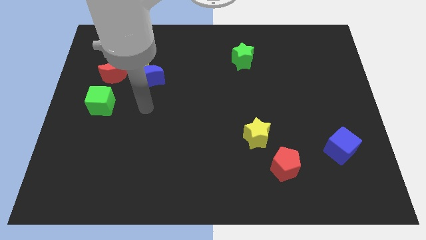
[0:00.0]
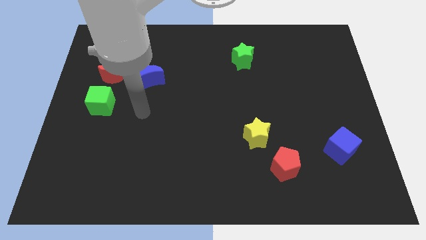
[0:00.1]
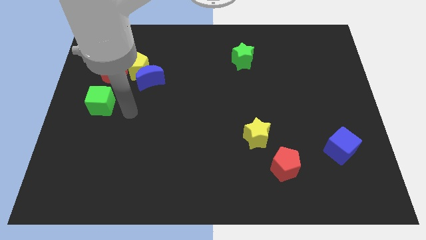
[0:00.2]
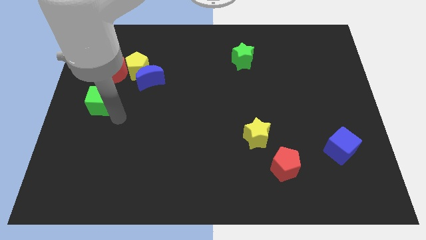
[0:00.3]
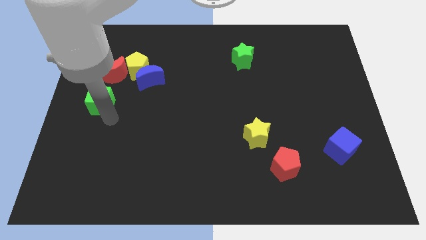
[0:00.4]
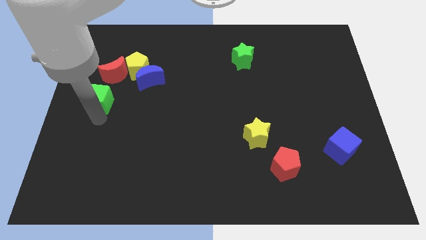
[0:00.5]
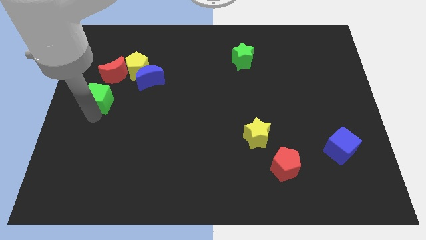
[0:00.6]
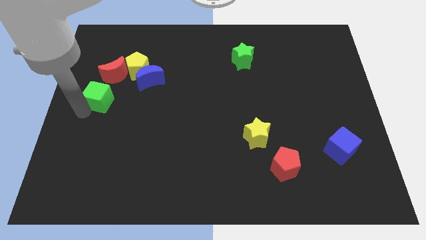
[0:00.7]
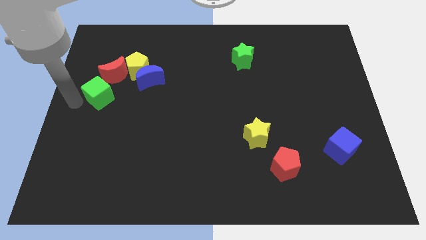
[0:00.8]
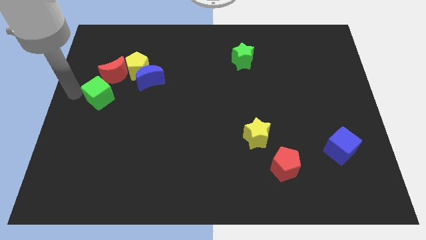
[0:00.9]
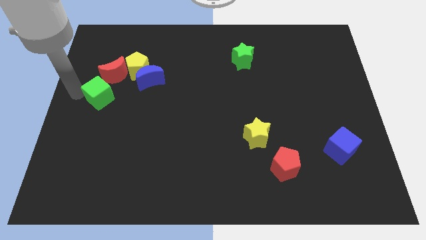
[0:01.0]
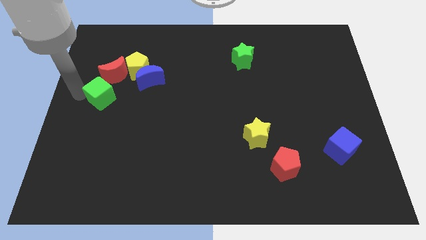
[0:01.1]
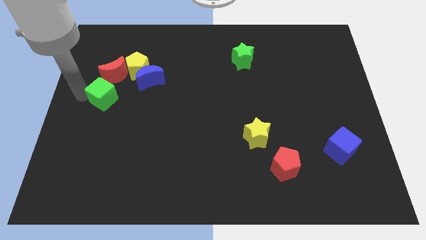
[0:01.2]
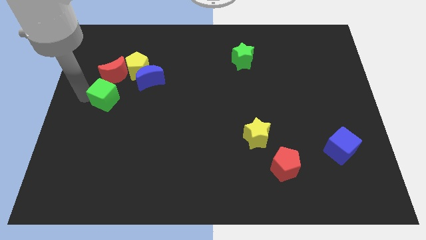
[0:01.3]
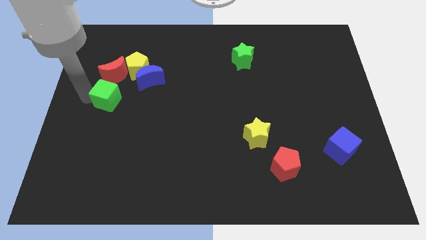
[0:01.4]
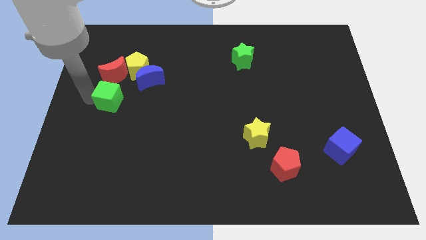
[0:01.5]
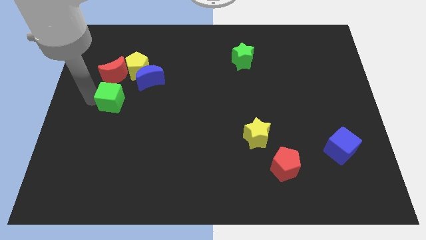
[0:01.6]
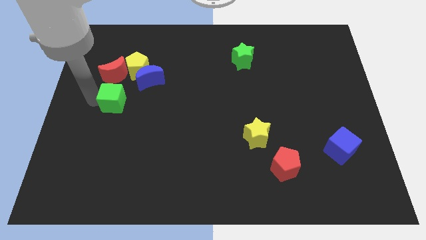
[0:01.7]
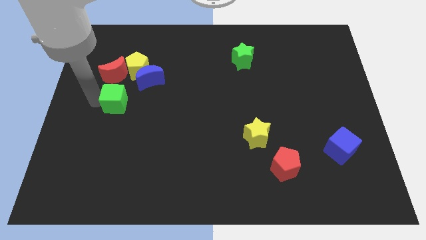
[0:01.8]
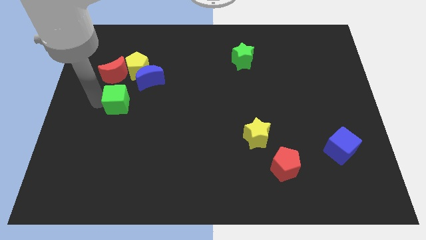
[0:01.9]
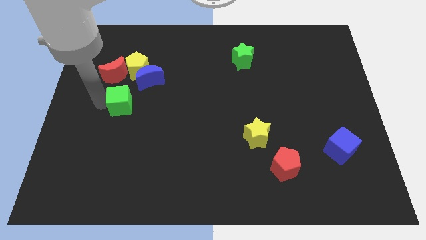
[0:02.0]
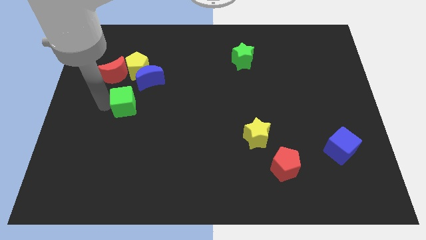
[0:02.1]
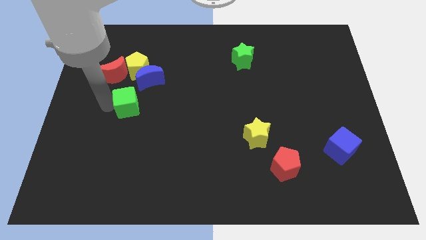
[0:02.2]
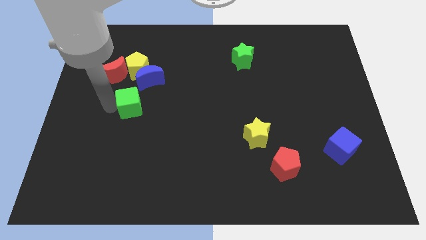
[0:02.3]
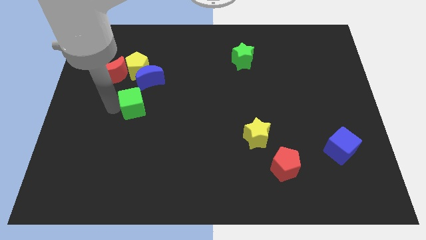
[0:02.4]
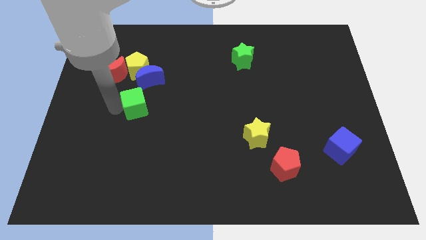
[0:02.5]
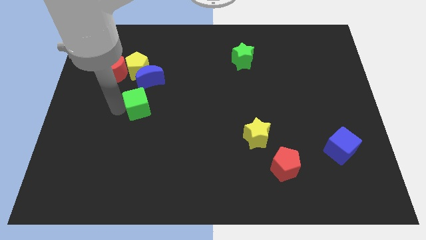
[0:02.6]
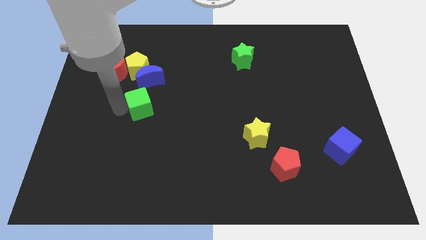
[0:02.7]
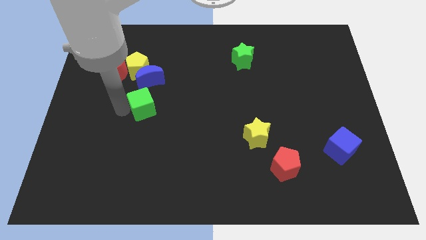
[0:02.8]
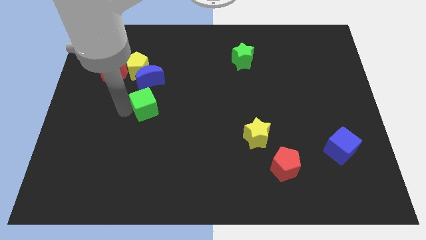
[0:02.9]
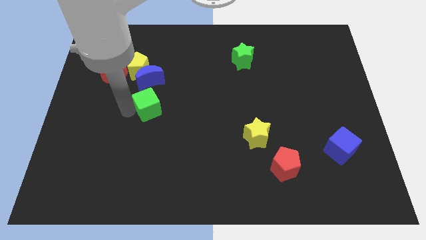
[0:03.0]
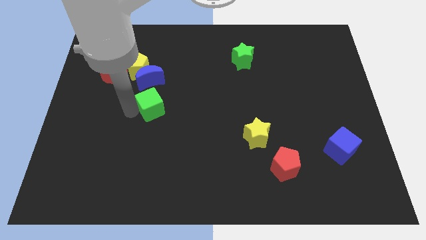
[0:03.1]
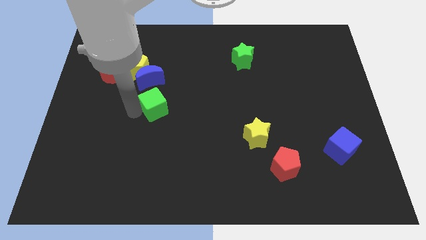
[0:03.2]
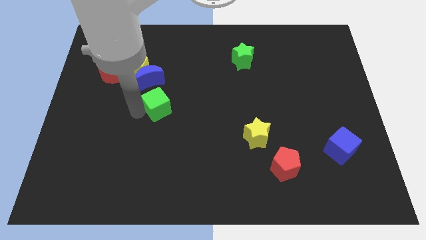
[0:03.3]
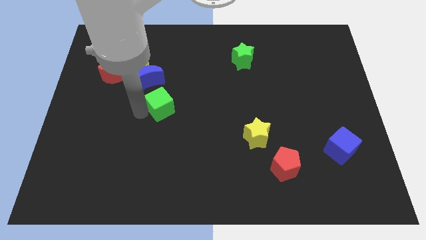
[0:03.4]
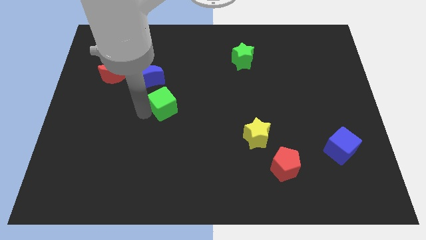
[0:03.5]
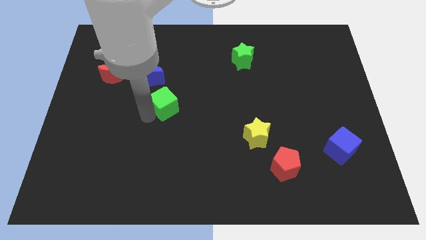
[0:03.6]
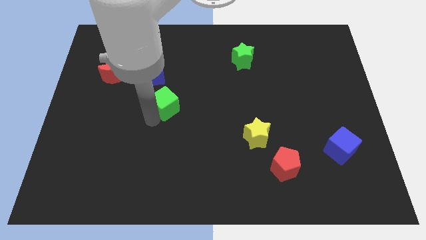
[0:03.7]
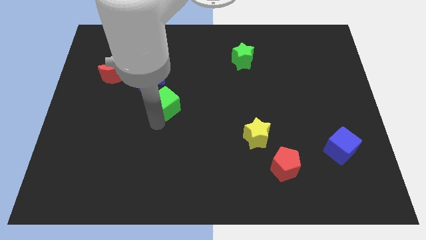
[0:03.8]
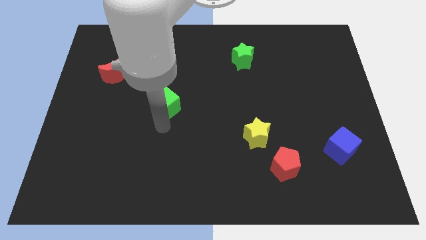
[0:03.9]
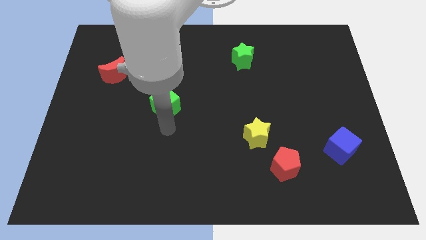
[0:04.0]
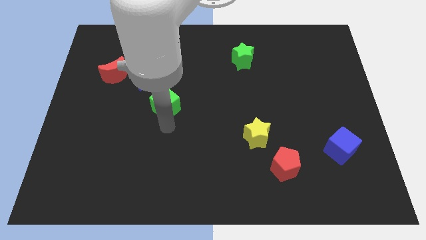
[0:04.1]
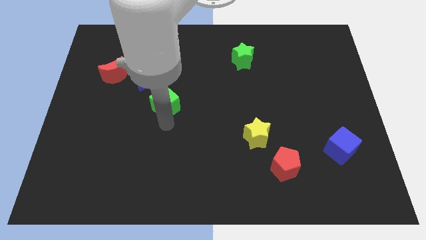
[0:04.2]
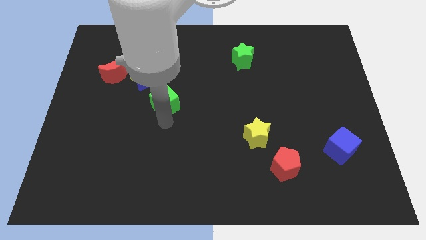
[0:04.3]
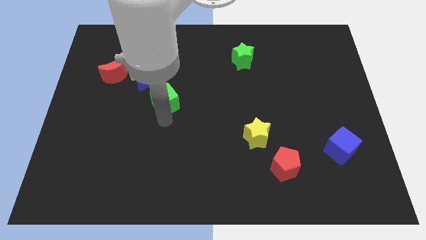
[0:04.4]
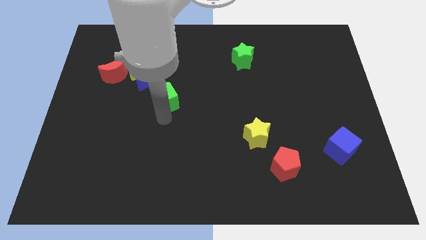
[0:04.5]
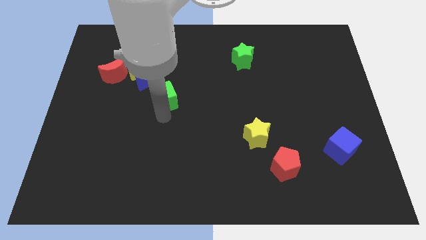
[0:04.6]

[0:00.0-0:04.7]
slide the green cube slightly up and then right

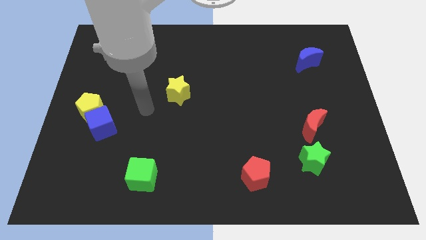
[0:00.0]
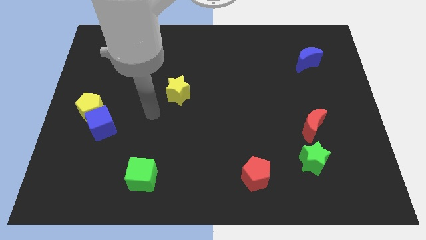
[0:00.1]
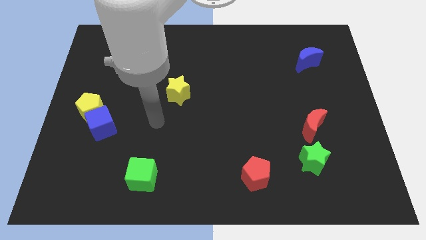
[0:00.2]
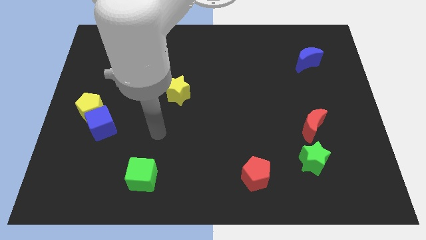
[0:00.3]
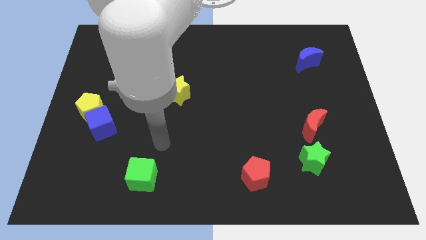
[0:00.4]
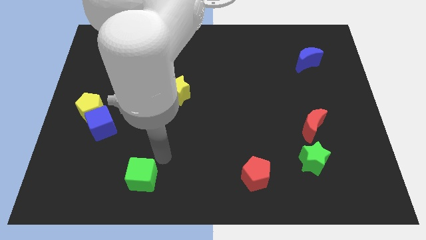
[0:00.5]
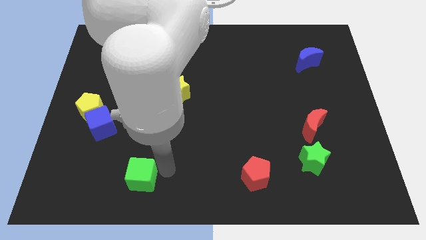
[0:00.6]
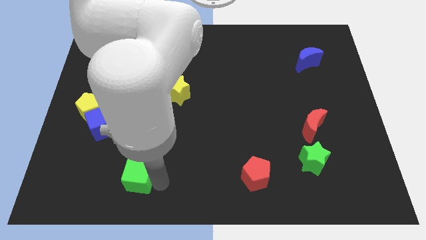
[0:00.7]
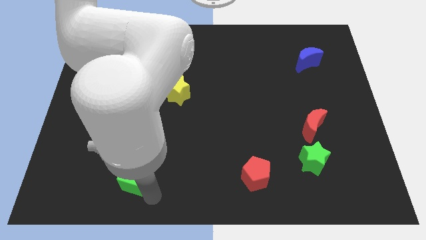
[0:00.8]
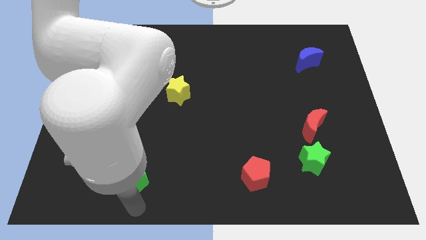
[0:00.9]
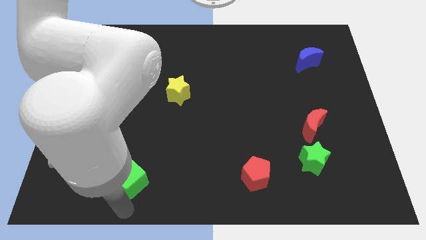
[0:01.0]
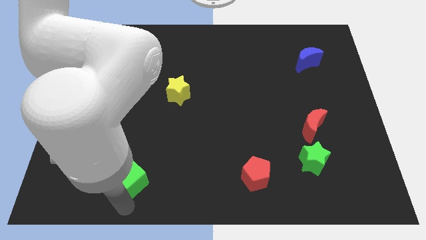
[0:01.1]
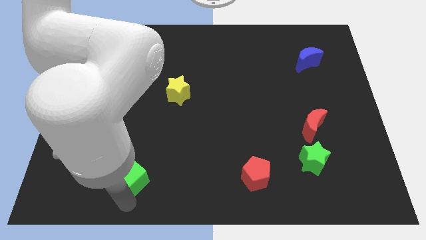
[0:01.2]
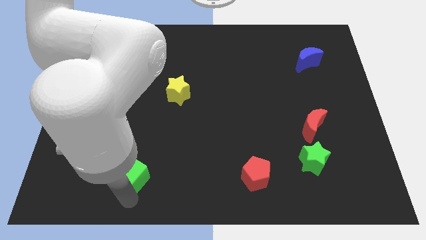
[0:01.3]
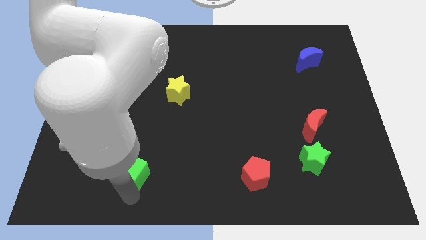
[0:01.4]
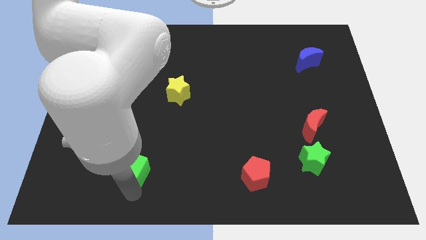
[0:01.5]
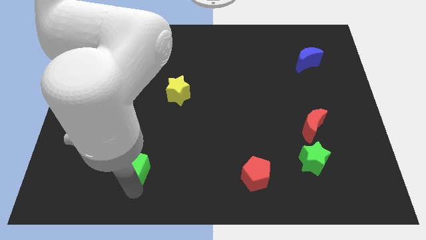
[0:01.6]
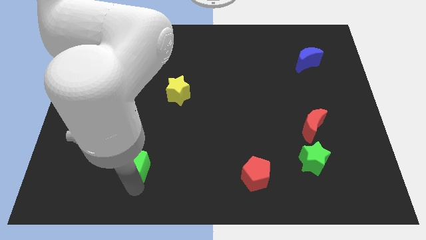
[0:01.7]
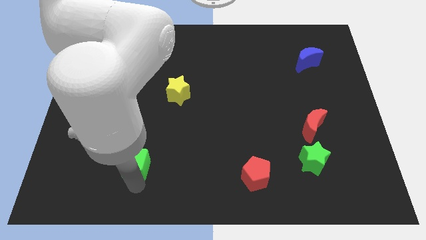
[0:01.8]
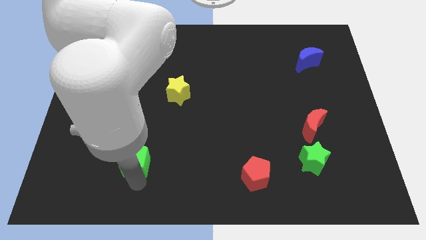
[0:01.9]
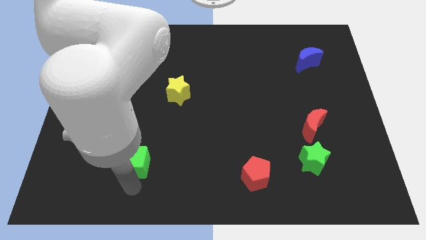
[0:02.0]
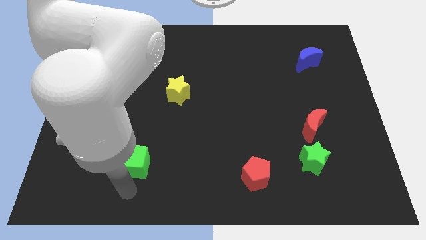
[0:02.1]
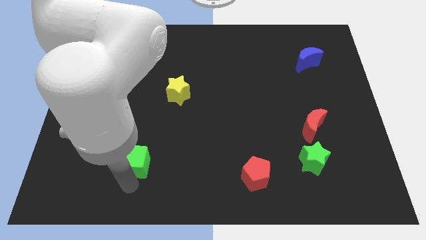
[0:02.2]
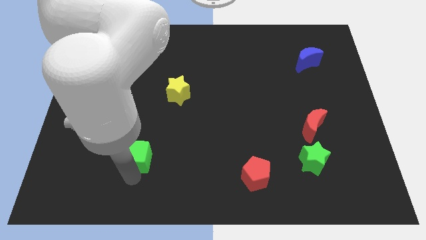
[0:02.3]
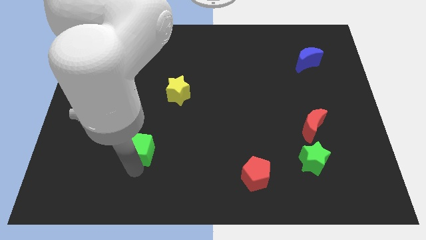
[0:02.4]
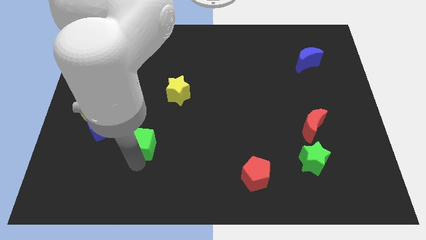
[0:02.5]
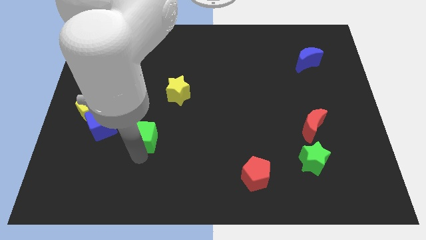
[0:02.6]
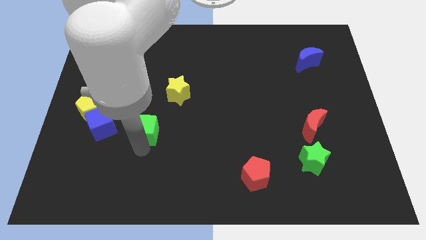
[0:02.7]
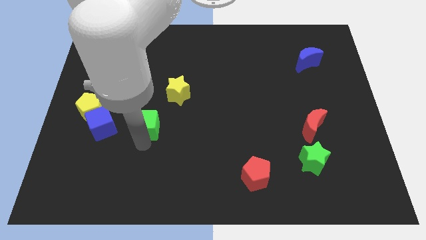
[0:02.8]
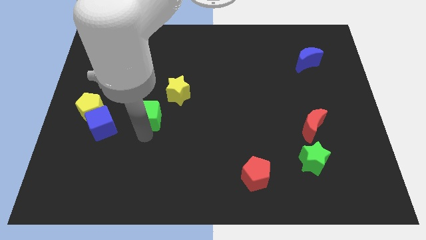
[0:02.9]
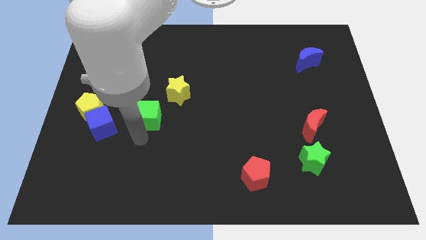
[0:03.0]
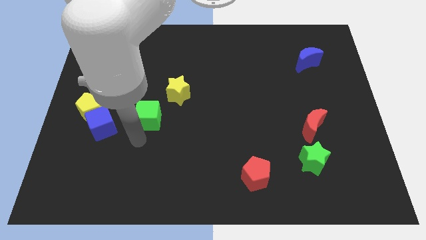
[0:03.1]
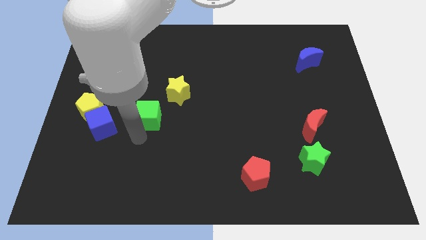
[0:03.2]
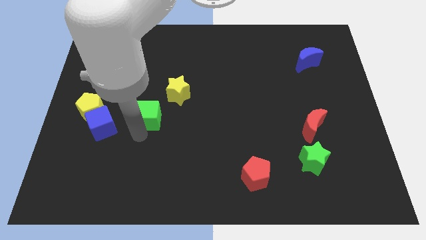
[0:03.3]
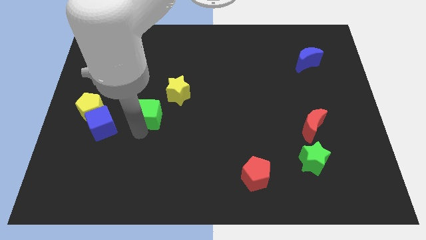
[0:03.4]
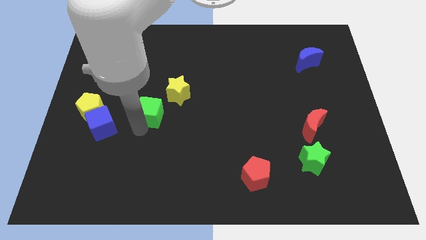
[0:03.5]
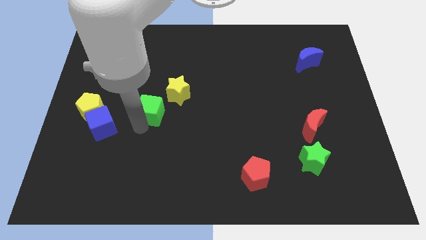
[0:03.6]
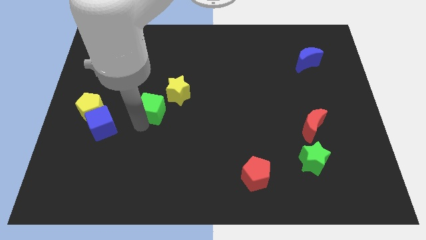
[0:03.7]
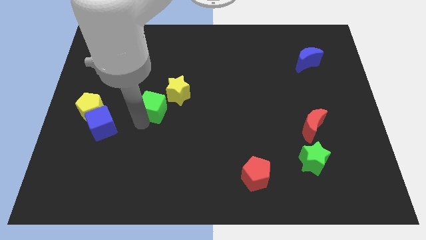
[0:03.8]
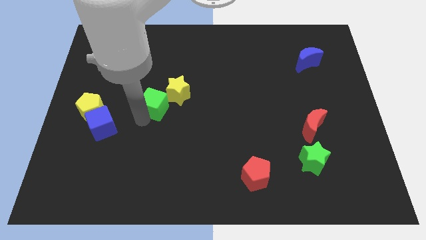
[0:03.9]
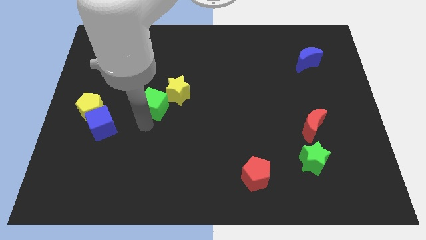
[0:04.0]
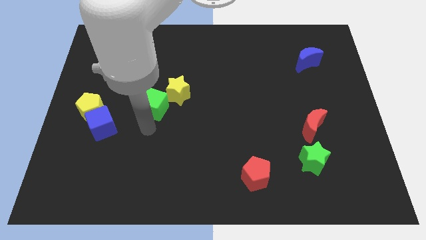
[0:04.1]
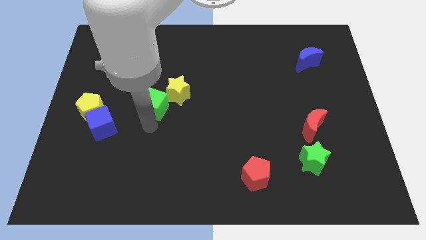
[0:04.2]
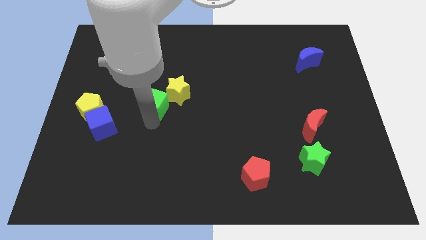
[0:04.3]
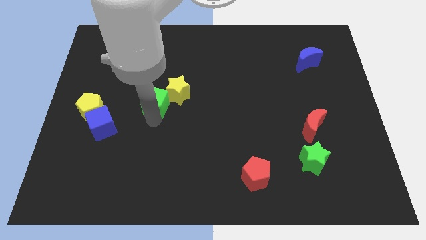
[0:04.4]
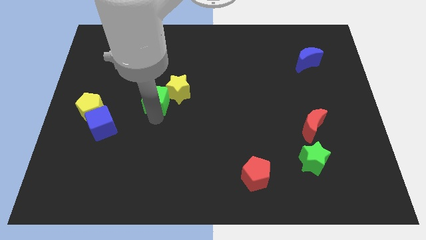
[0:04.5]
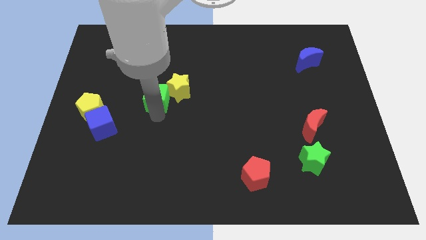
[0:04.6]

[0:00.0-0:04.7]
slide the green cube upwards
